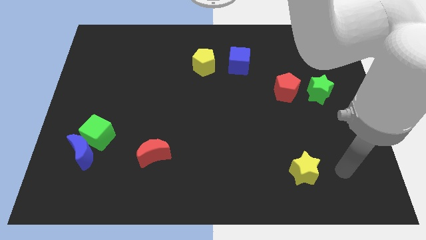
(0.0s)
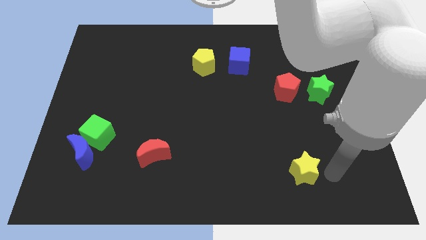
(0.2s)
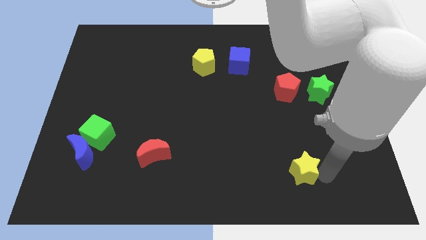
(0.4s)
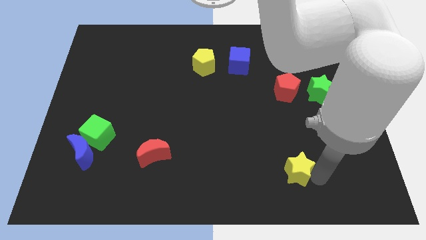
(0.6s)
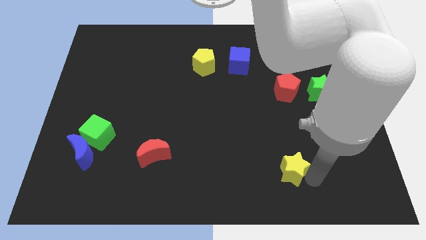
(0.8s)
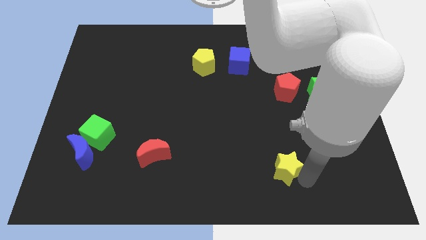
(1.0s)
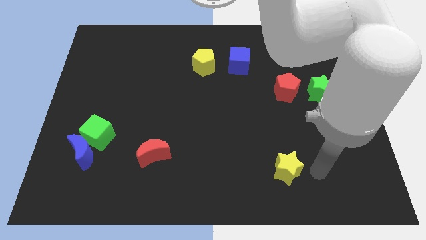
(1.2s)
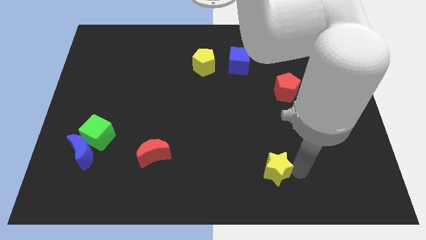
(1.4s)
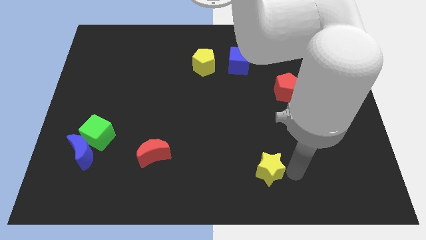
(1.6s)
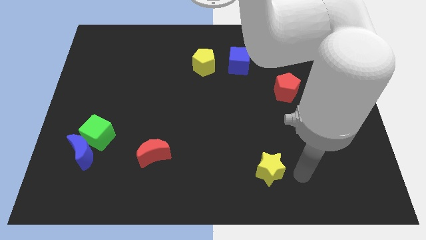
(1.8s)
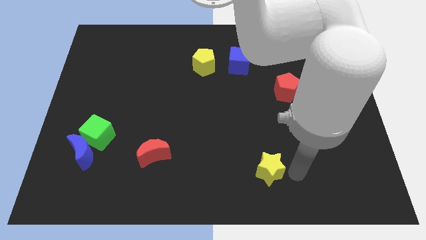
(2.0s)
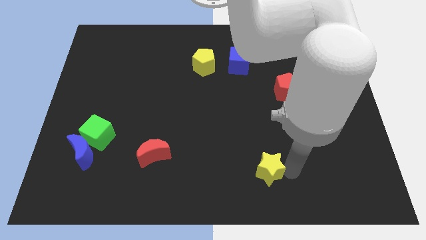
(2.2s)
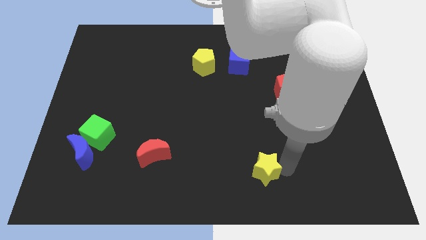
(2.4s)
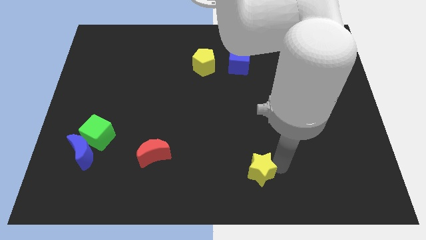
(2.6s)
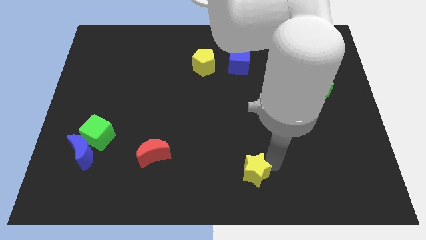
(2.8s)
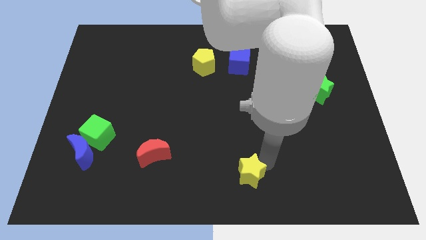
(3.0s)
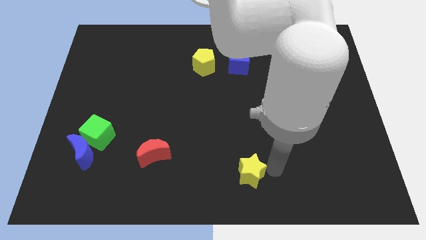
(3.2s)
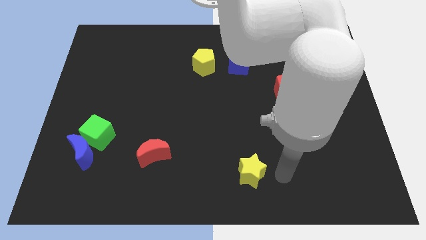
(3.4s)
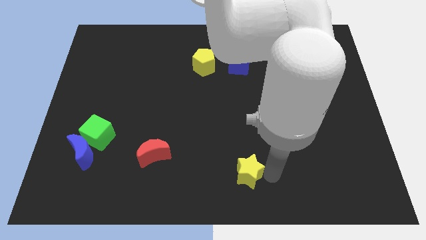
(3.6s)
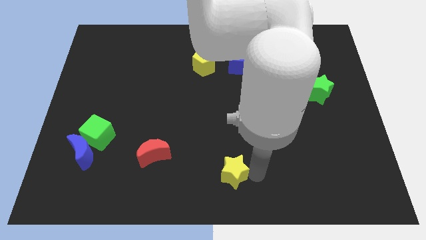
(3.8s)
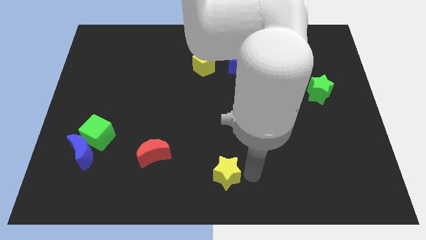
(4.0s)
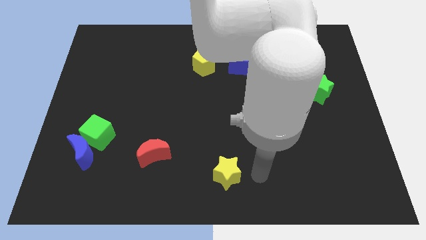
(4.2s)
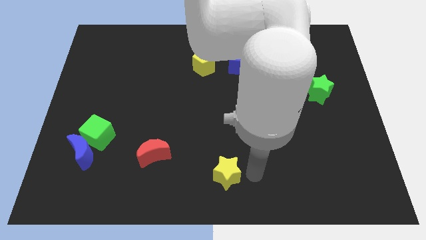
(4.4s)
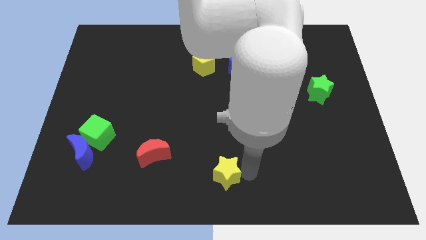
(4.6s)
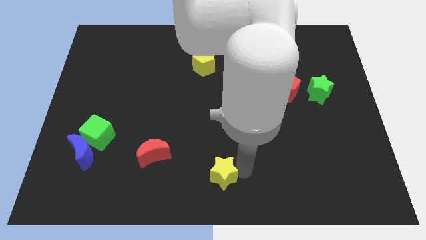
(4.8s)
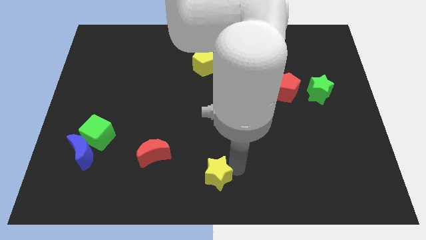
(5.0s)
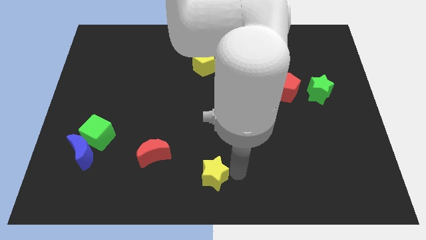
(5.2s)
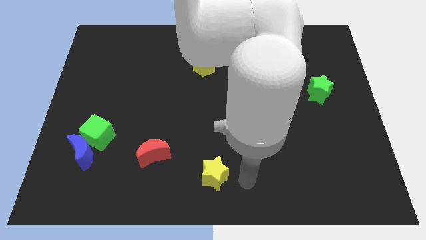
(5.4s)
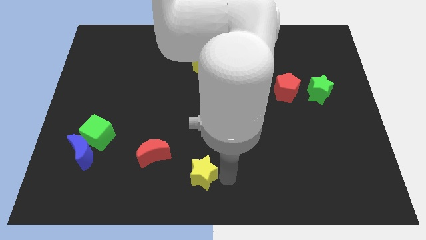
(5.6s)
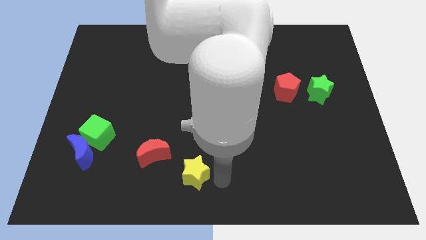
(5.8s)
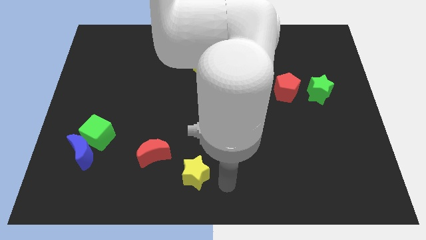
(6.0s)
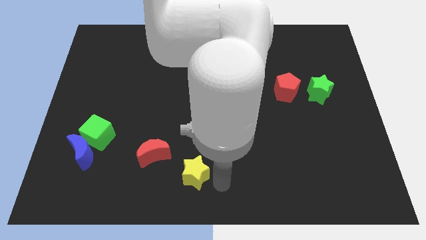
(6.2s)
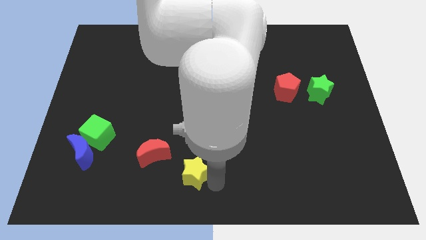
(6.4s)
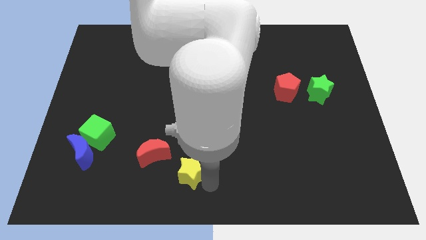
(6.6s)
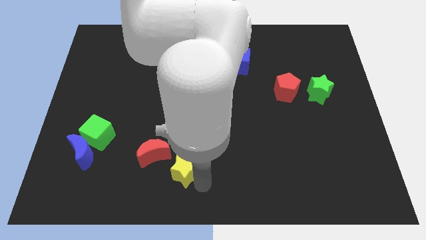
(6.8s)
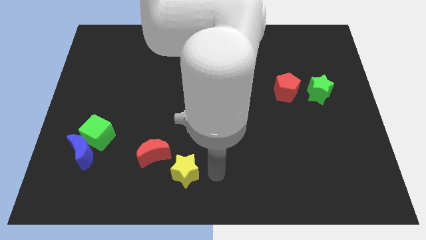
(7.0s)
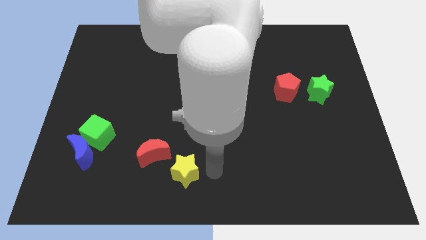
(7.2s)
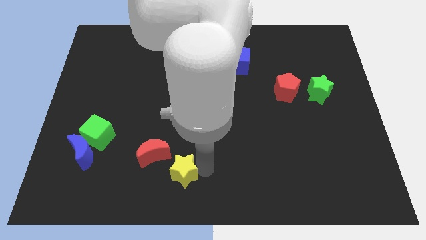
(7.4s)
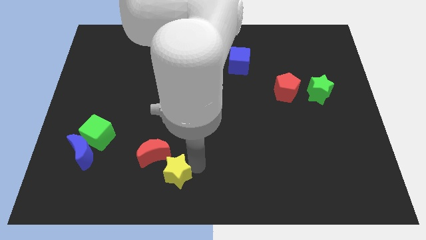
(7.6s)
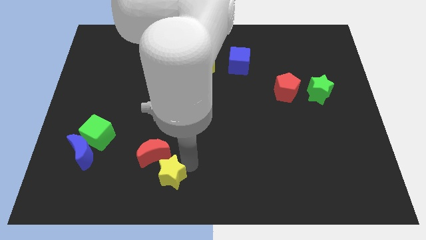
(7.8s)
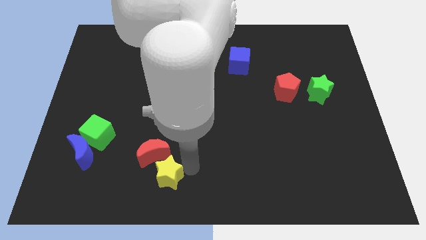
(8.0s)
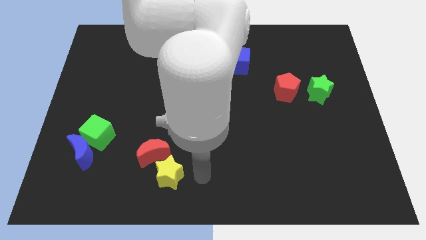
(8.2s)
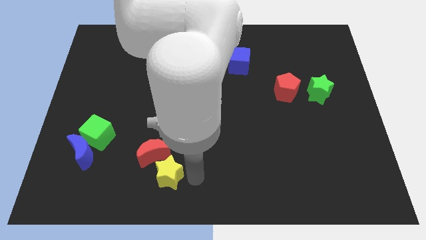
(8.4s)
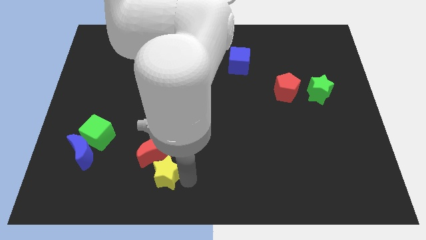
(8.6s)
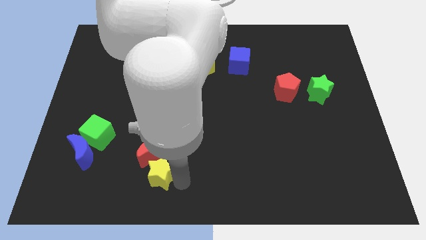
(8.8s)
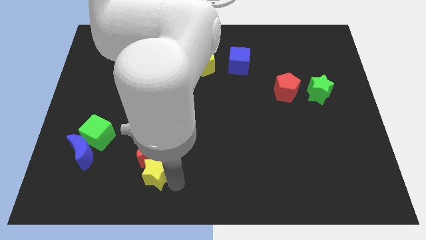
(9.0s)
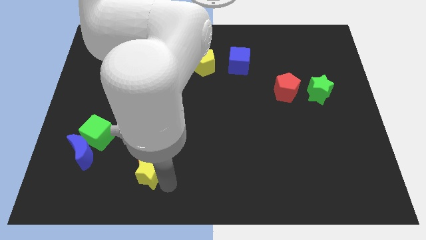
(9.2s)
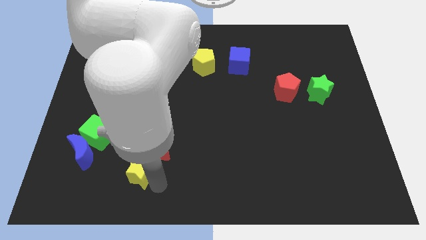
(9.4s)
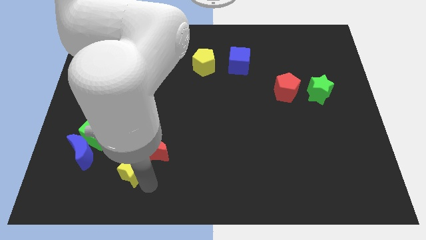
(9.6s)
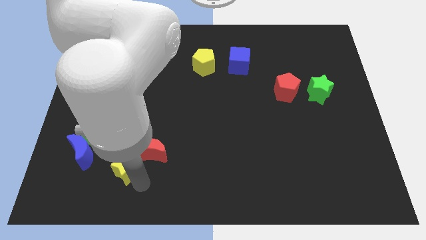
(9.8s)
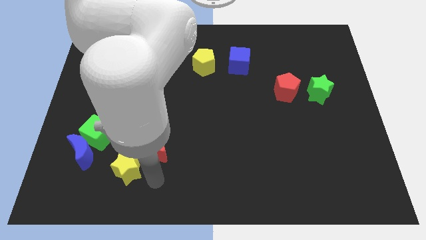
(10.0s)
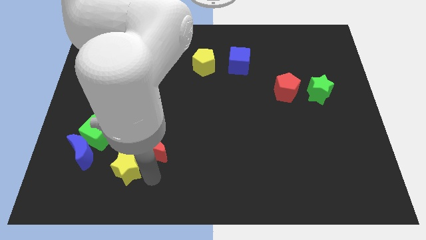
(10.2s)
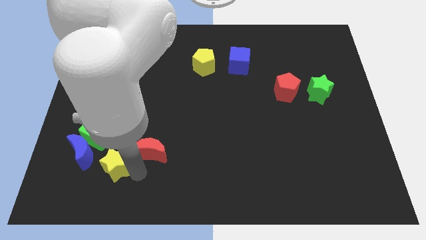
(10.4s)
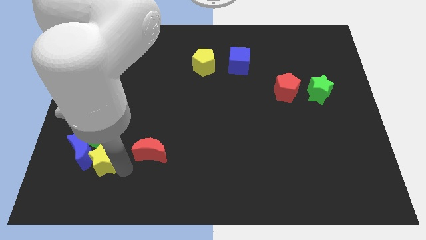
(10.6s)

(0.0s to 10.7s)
move the yellow star towards the blue moon

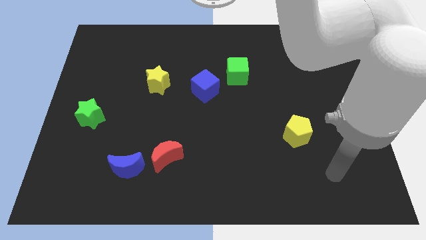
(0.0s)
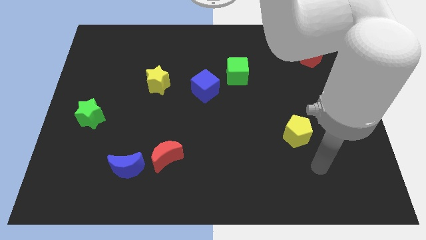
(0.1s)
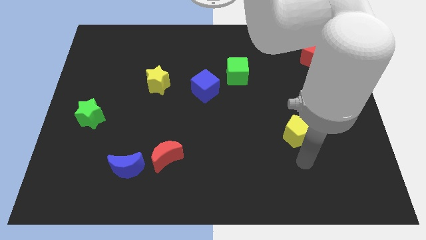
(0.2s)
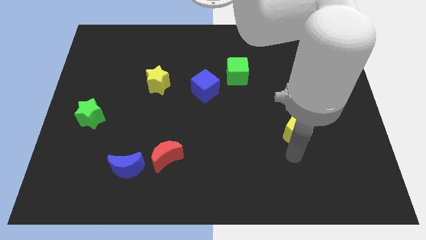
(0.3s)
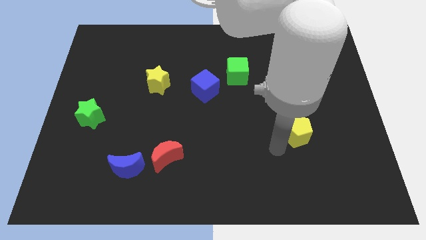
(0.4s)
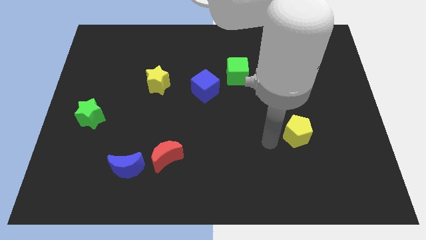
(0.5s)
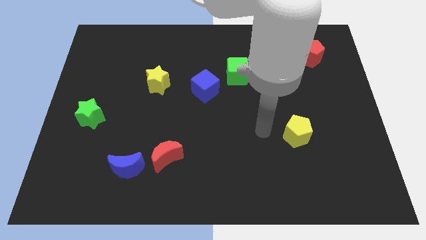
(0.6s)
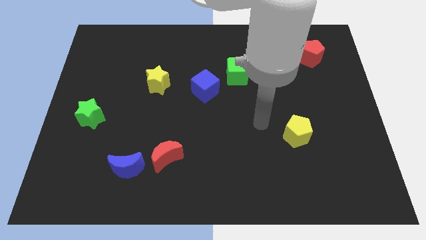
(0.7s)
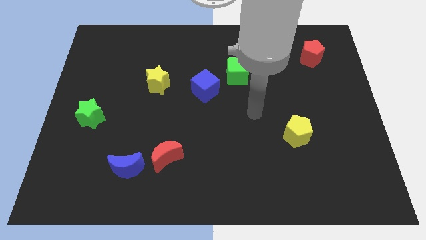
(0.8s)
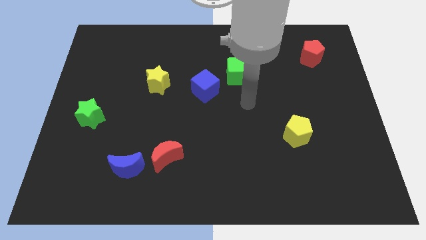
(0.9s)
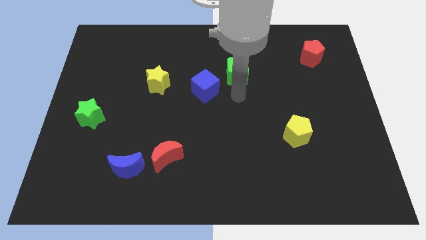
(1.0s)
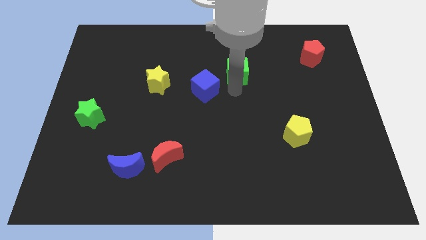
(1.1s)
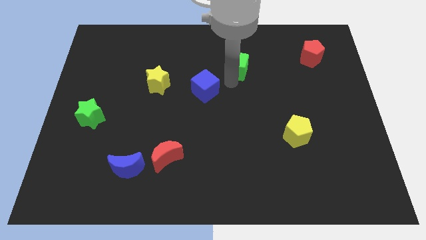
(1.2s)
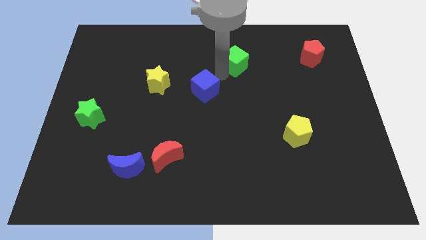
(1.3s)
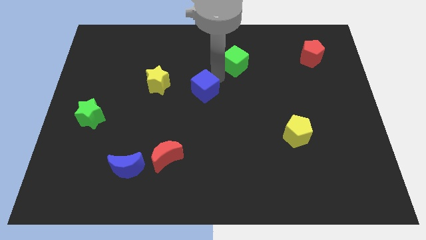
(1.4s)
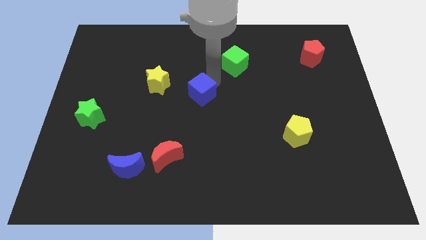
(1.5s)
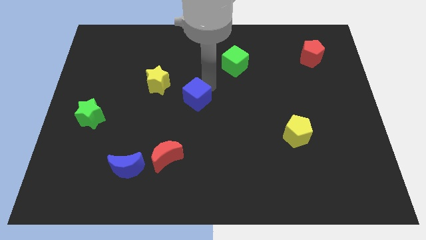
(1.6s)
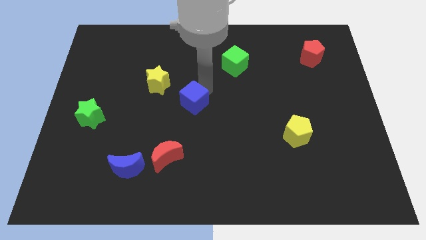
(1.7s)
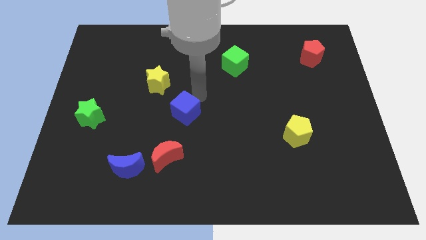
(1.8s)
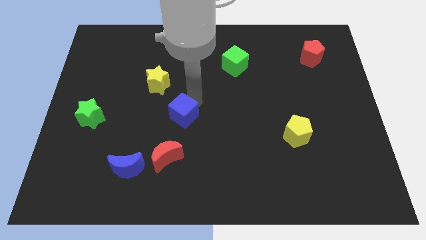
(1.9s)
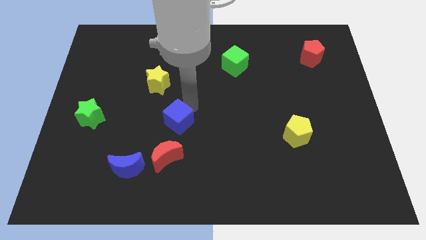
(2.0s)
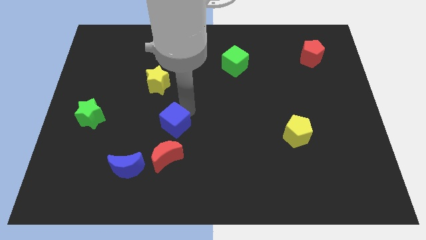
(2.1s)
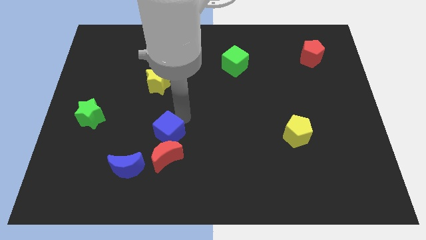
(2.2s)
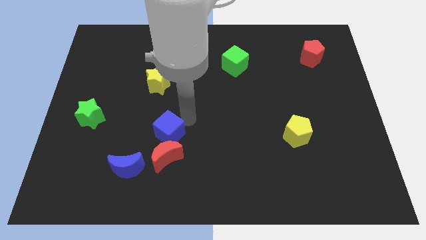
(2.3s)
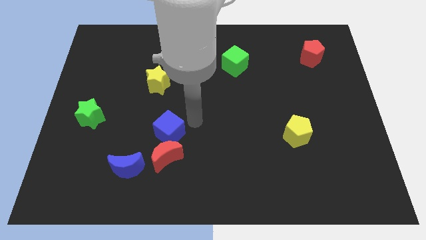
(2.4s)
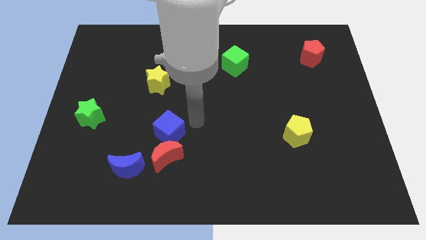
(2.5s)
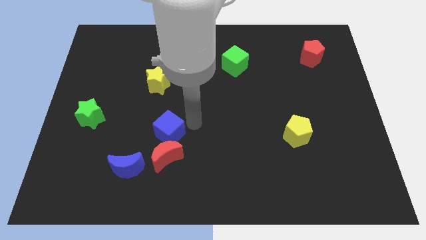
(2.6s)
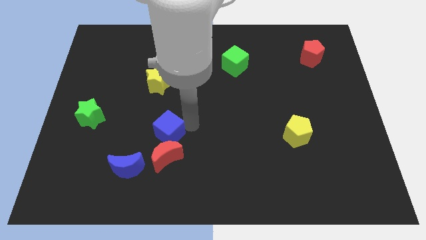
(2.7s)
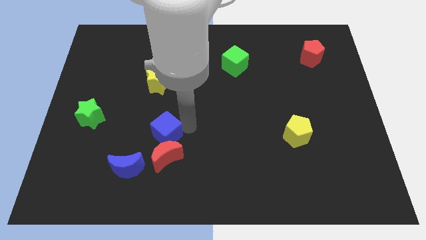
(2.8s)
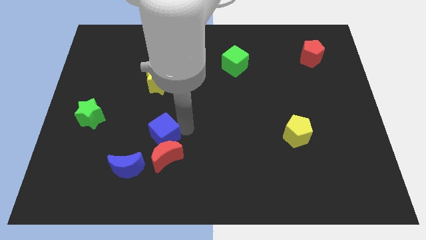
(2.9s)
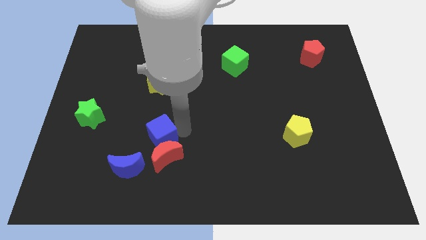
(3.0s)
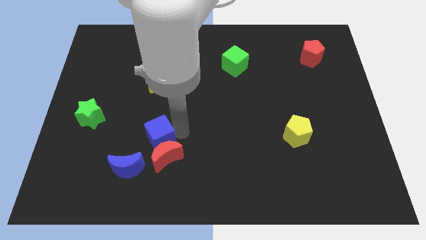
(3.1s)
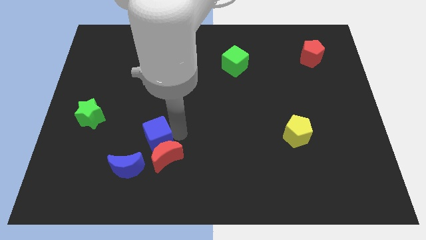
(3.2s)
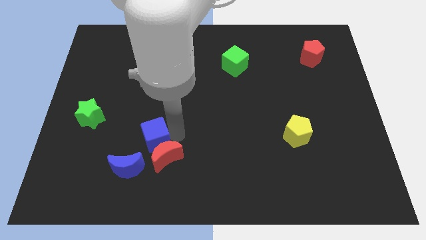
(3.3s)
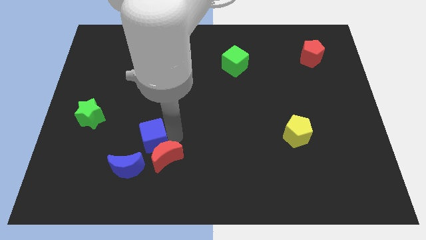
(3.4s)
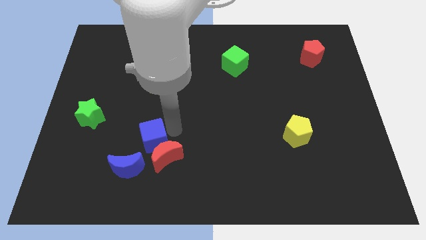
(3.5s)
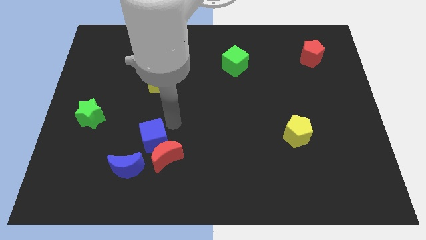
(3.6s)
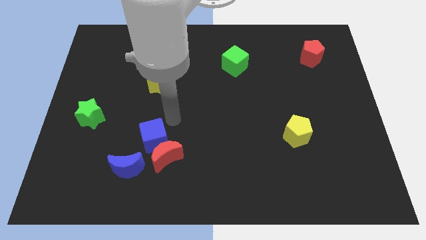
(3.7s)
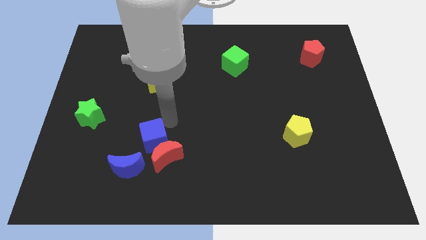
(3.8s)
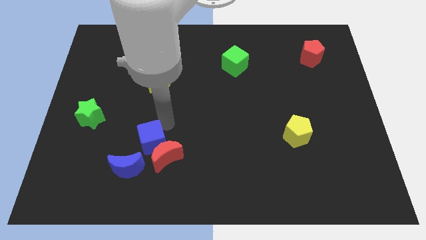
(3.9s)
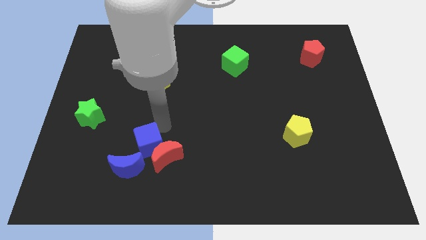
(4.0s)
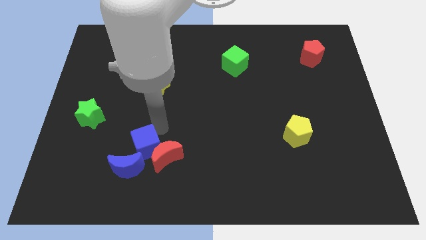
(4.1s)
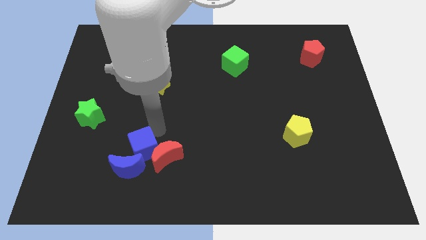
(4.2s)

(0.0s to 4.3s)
move the blue cube close to the blue moon
